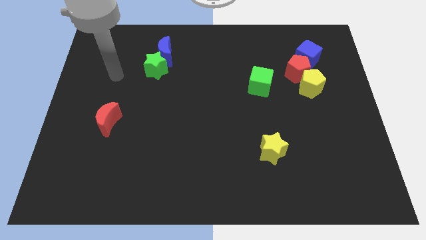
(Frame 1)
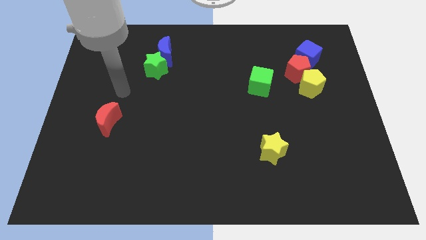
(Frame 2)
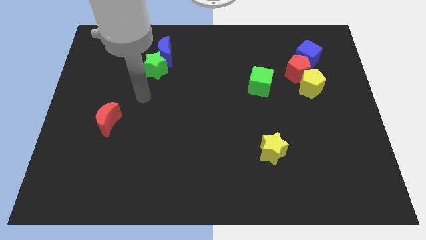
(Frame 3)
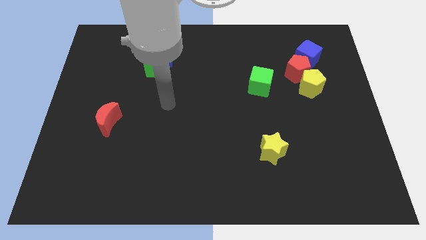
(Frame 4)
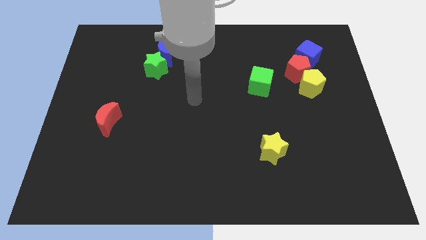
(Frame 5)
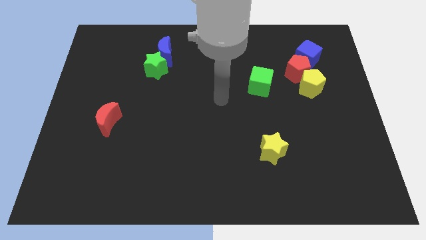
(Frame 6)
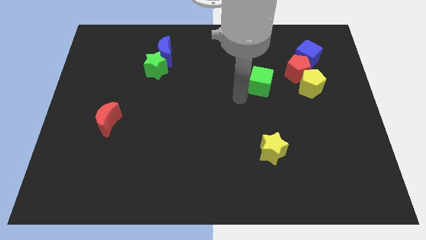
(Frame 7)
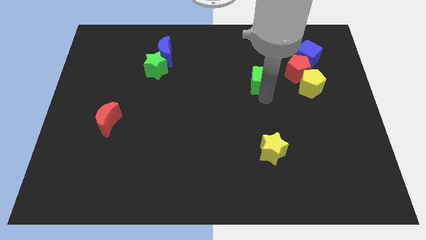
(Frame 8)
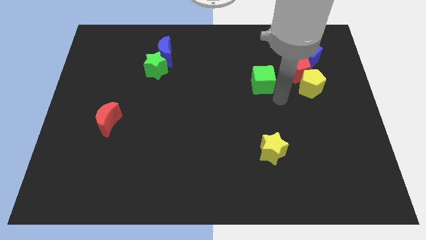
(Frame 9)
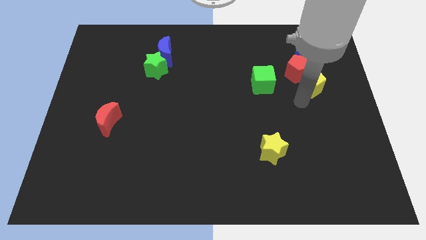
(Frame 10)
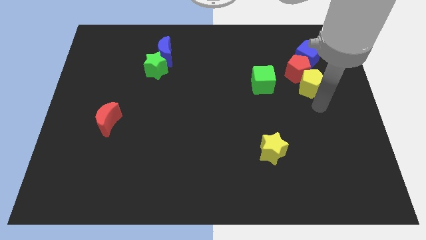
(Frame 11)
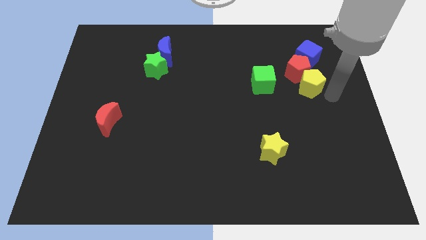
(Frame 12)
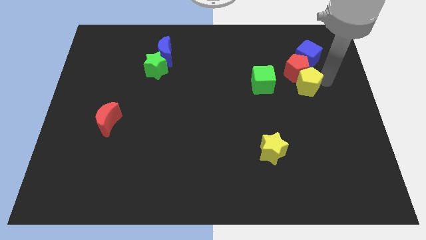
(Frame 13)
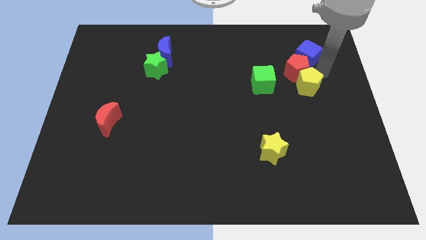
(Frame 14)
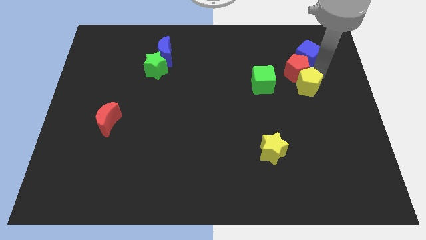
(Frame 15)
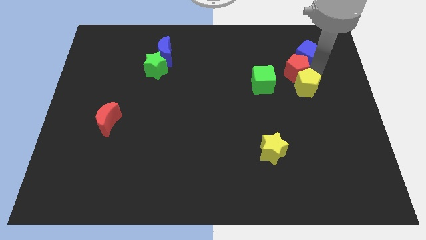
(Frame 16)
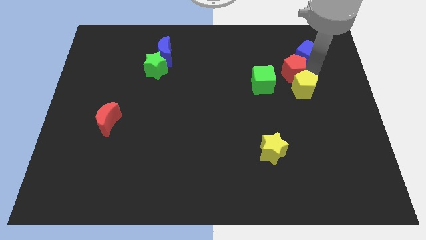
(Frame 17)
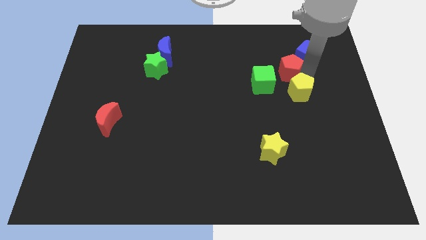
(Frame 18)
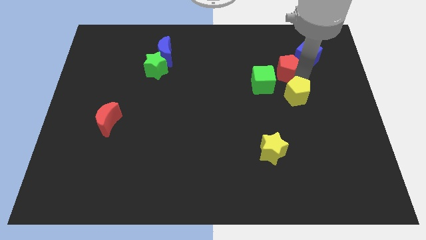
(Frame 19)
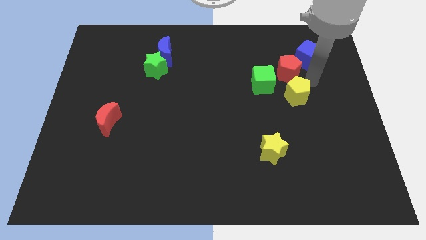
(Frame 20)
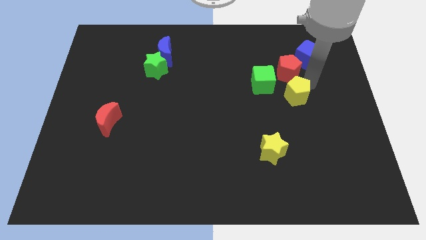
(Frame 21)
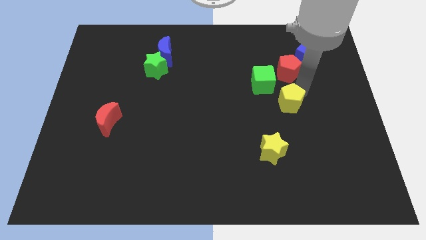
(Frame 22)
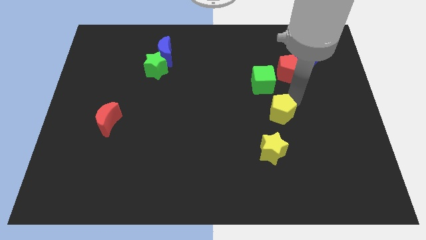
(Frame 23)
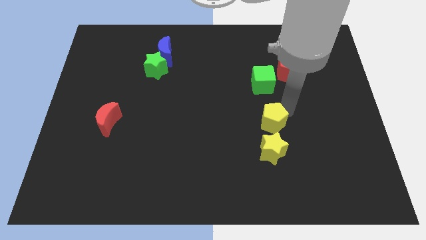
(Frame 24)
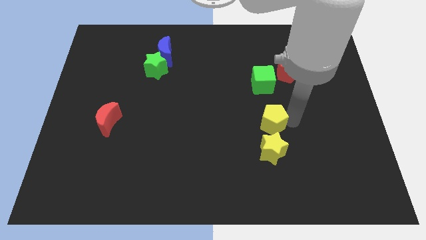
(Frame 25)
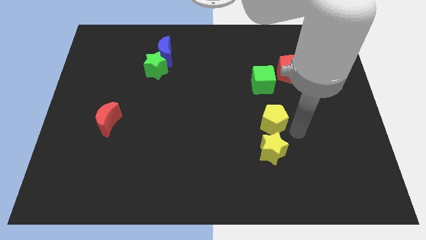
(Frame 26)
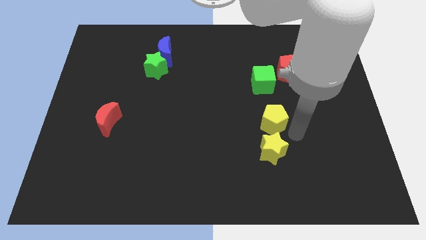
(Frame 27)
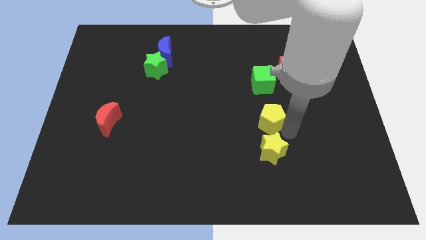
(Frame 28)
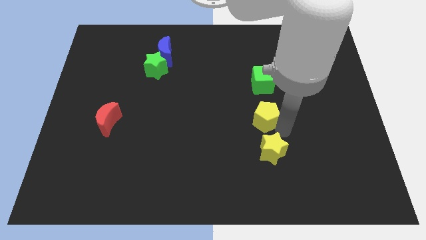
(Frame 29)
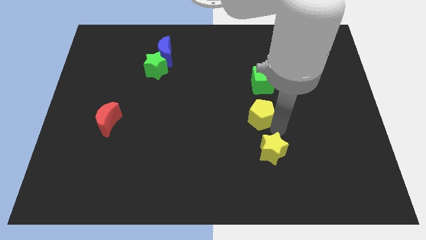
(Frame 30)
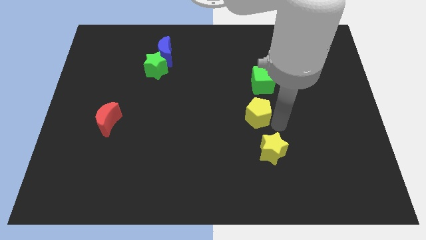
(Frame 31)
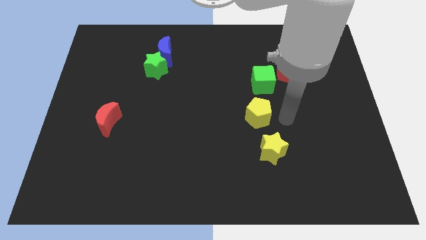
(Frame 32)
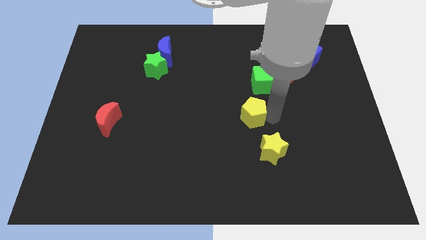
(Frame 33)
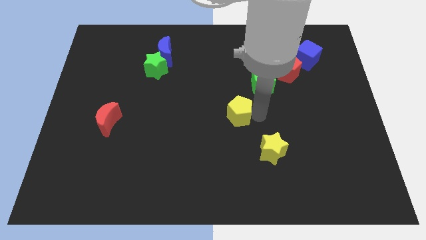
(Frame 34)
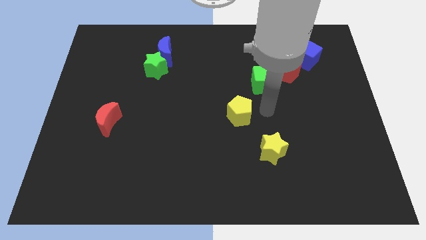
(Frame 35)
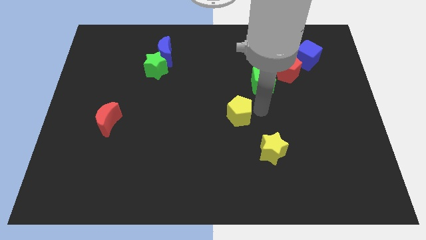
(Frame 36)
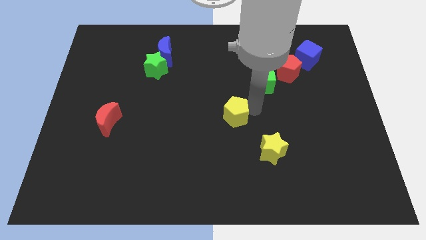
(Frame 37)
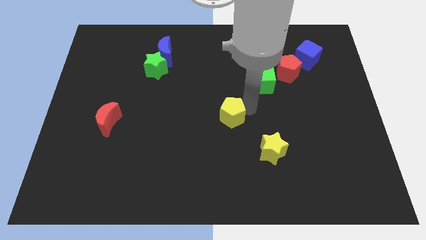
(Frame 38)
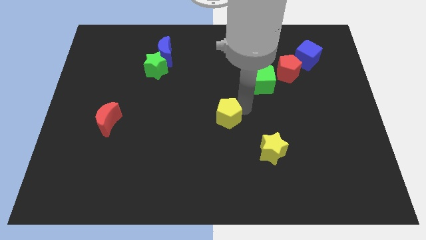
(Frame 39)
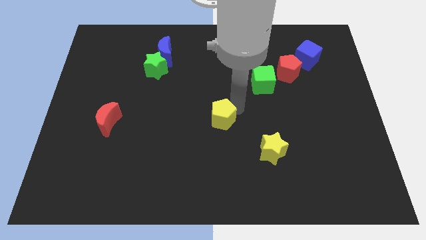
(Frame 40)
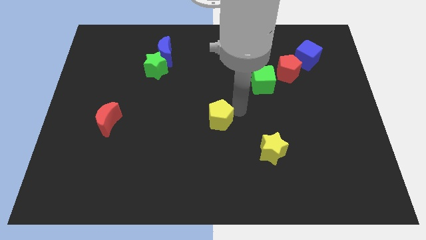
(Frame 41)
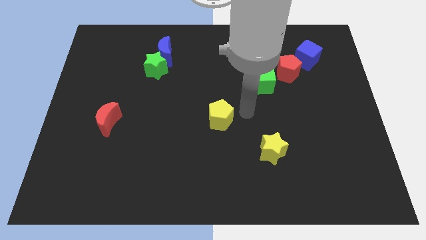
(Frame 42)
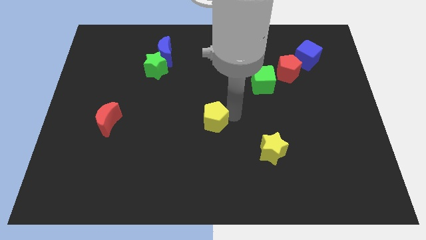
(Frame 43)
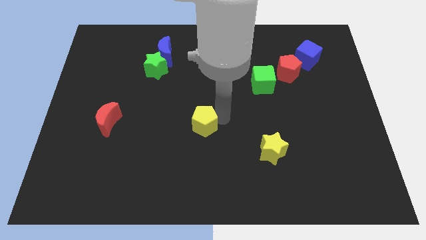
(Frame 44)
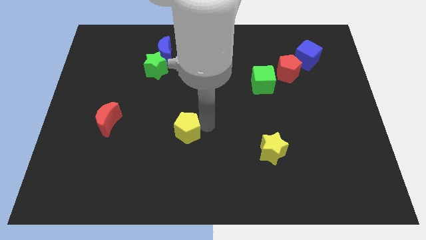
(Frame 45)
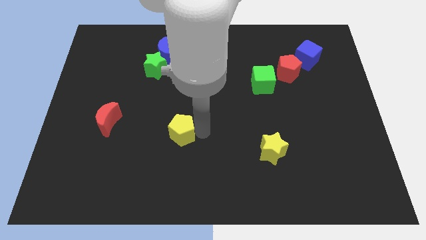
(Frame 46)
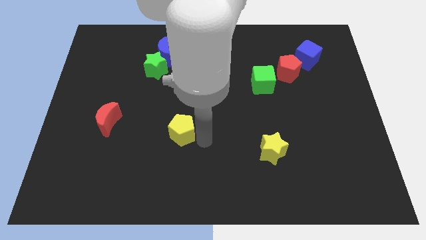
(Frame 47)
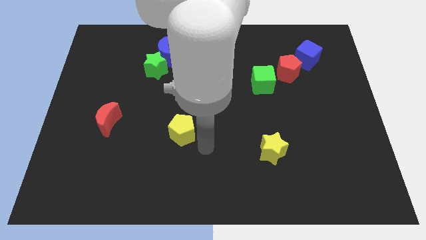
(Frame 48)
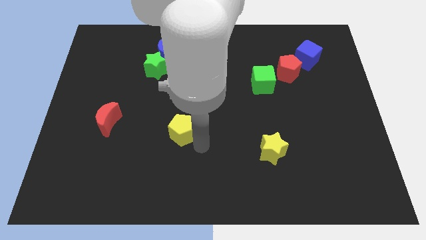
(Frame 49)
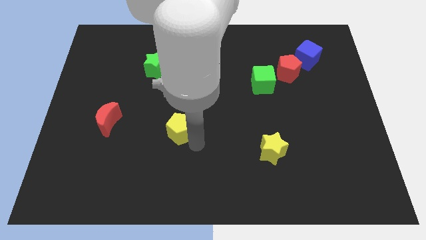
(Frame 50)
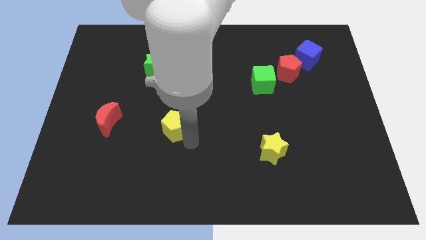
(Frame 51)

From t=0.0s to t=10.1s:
push the yellow pentagon to the right side of the red moon

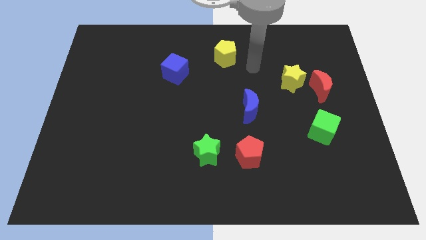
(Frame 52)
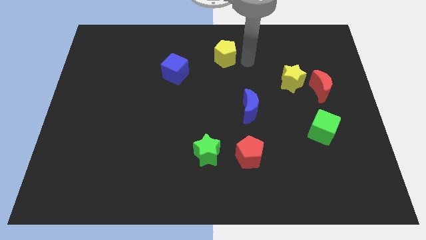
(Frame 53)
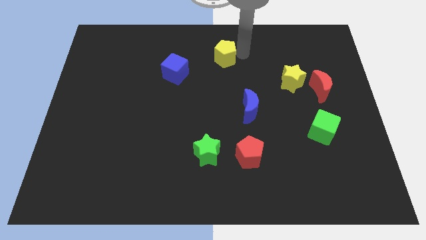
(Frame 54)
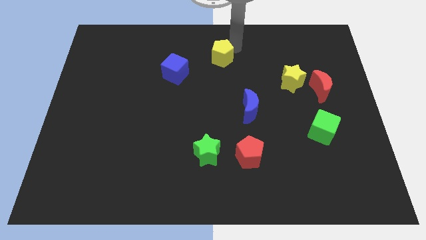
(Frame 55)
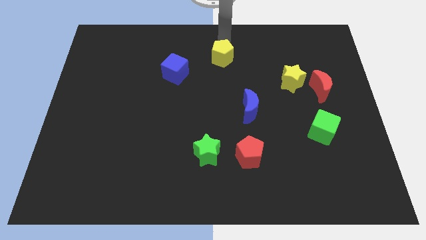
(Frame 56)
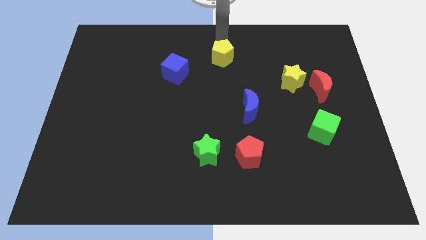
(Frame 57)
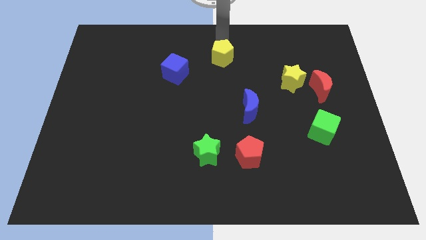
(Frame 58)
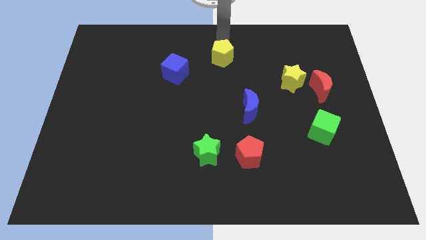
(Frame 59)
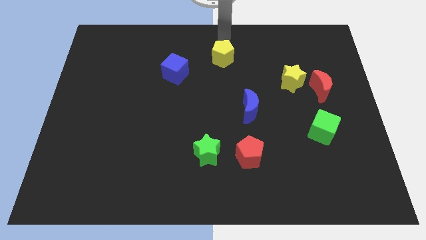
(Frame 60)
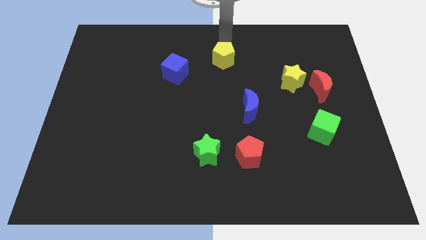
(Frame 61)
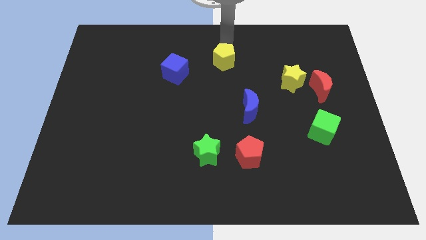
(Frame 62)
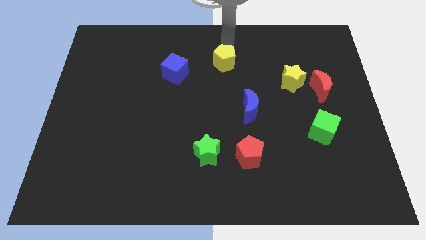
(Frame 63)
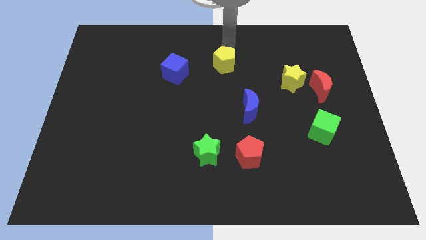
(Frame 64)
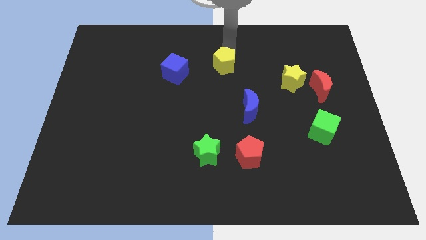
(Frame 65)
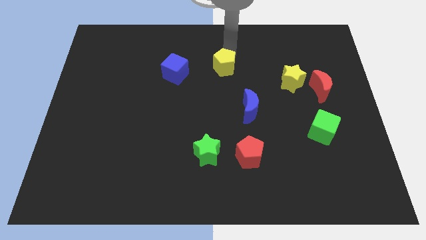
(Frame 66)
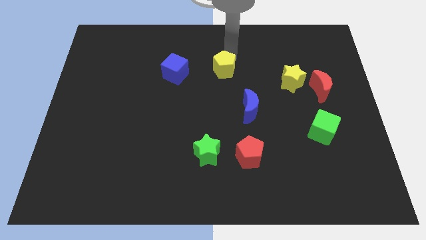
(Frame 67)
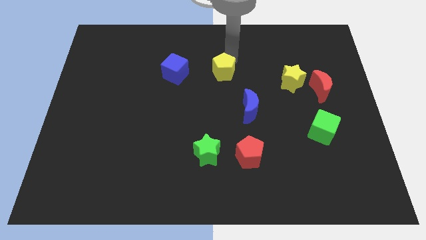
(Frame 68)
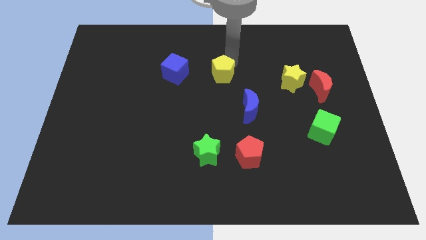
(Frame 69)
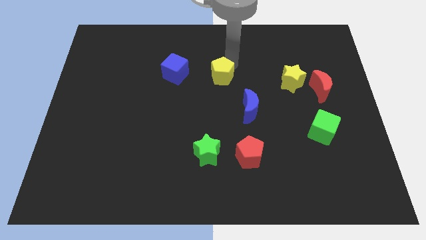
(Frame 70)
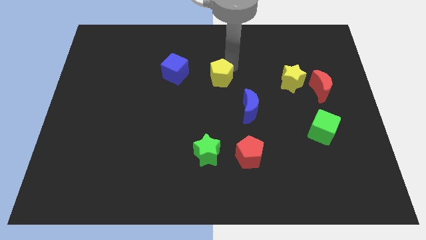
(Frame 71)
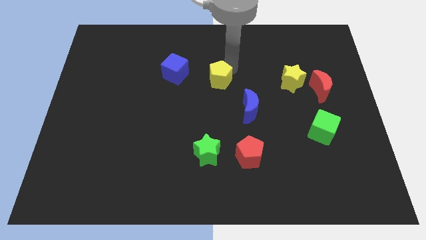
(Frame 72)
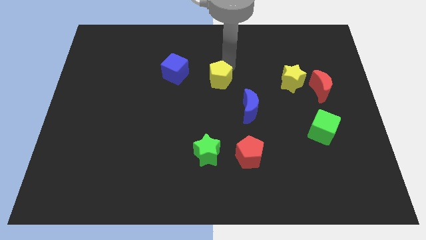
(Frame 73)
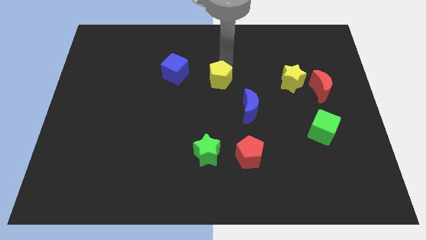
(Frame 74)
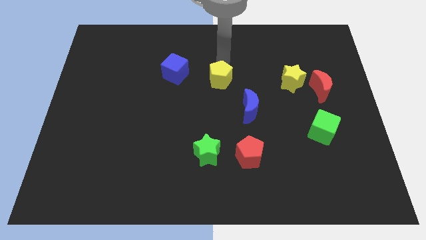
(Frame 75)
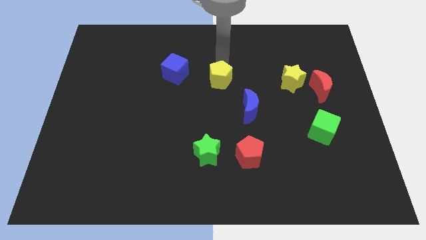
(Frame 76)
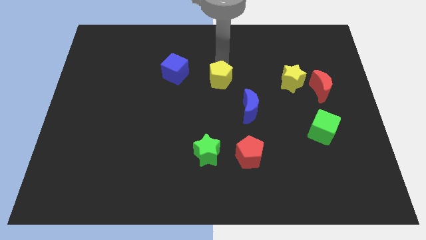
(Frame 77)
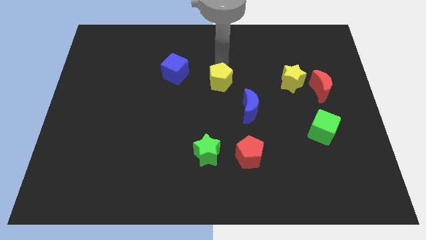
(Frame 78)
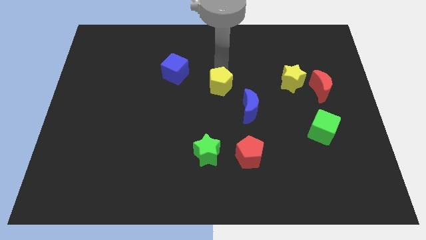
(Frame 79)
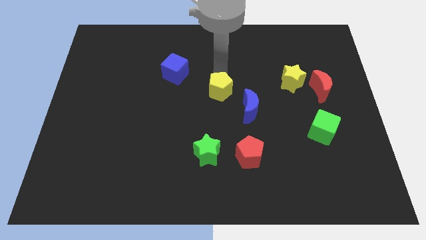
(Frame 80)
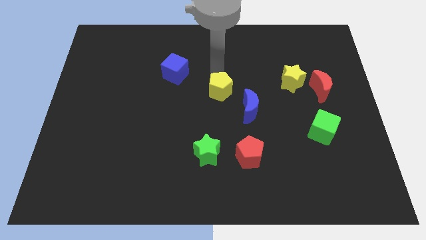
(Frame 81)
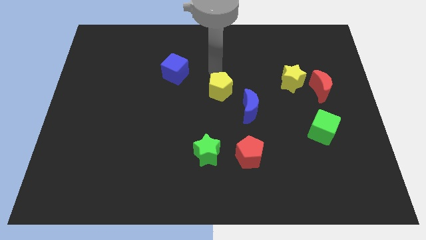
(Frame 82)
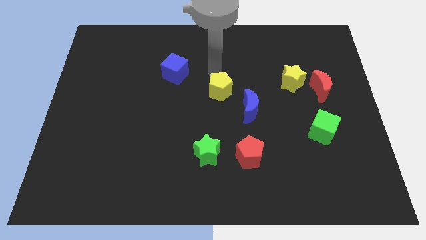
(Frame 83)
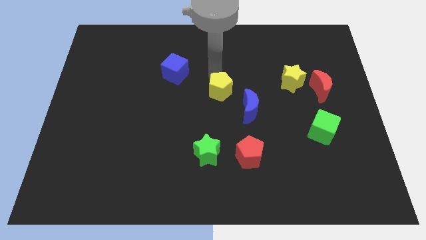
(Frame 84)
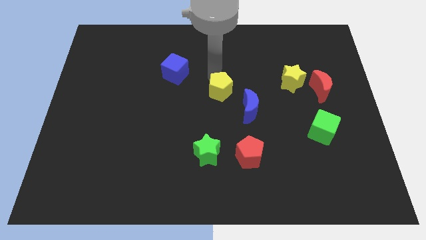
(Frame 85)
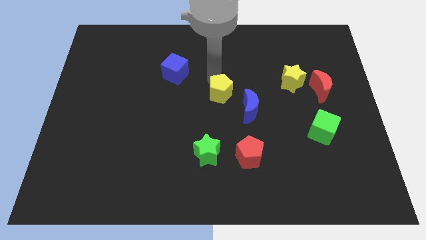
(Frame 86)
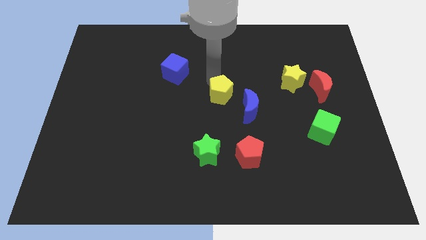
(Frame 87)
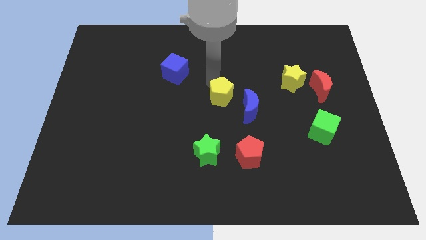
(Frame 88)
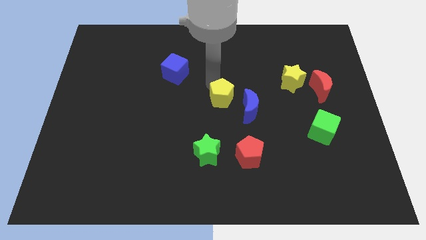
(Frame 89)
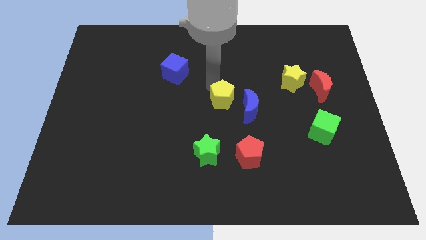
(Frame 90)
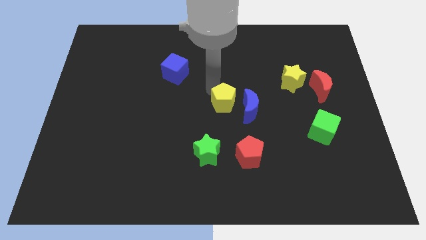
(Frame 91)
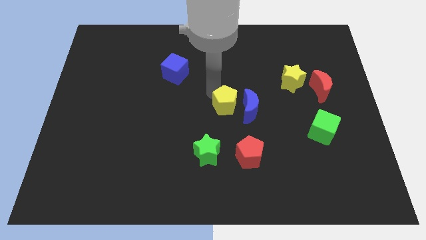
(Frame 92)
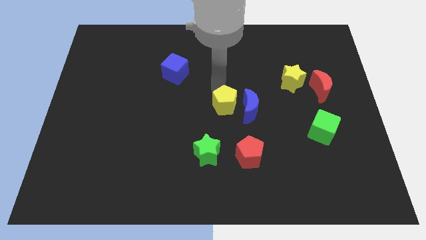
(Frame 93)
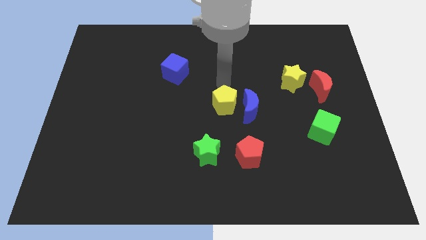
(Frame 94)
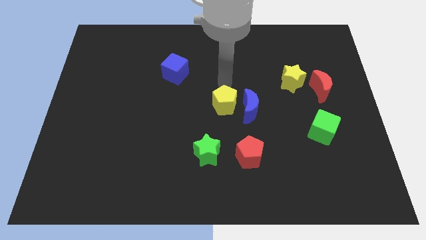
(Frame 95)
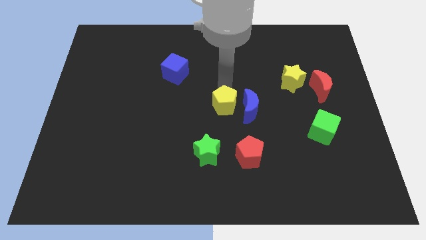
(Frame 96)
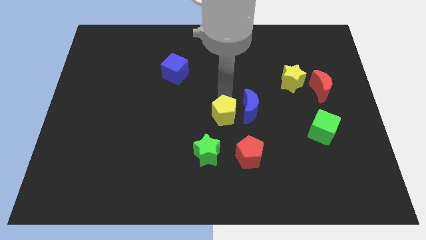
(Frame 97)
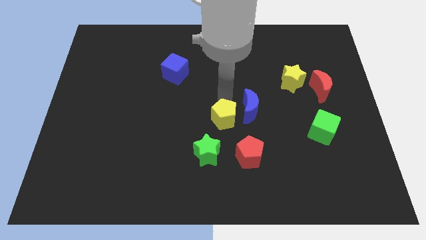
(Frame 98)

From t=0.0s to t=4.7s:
slide the yellow pentagon to the top left side of the red pentagon
